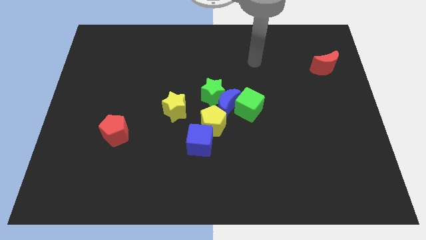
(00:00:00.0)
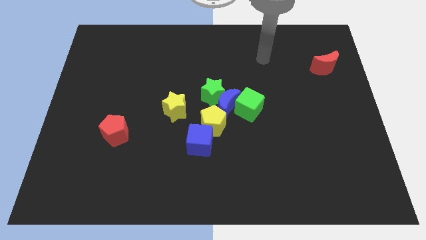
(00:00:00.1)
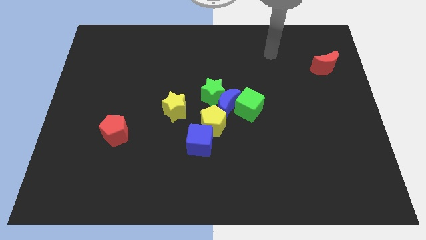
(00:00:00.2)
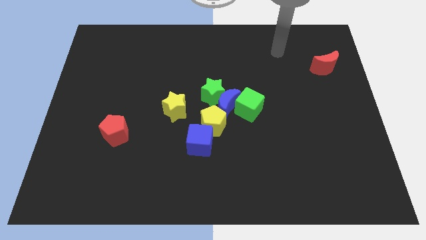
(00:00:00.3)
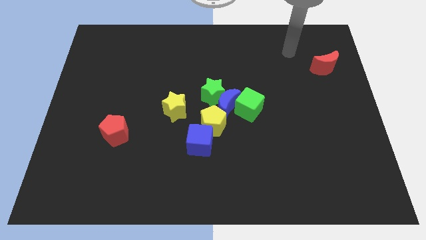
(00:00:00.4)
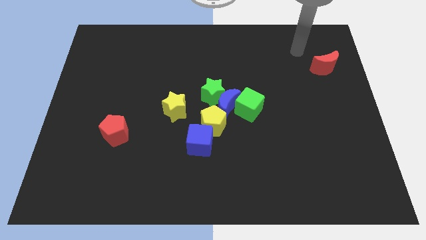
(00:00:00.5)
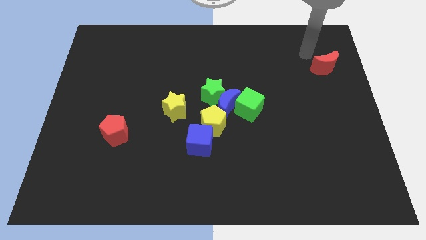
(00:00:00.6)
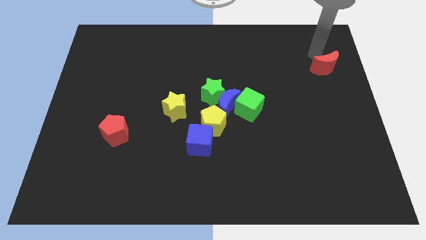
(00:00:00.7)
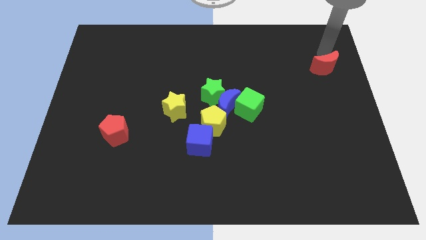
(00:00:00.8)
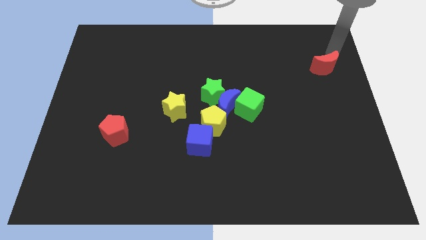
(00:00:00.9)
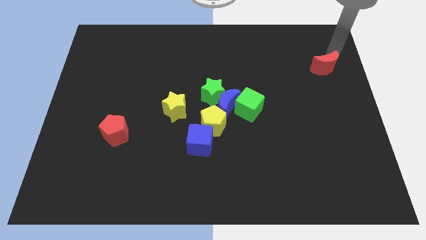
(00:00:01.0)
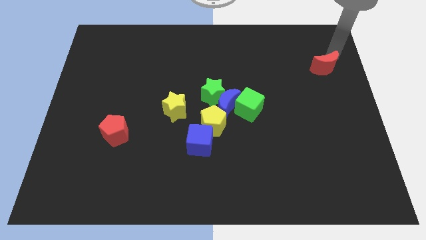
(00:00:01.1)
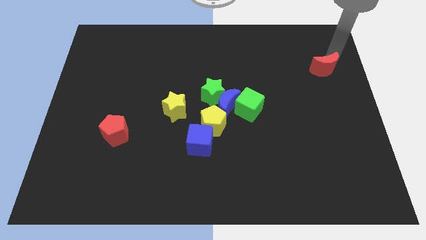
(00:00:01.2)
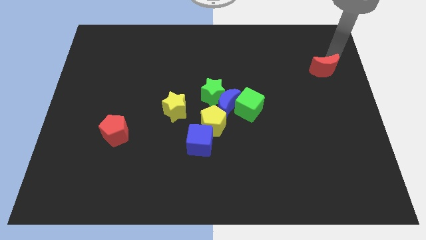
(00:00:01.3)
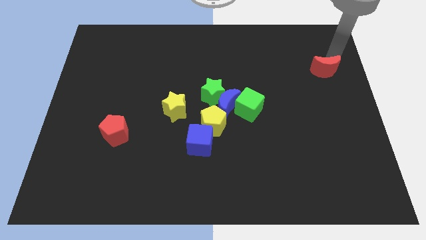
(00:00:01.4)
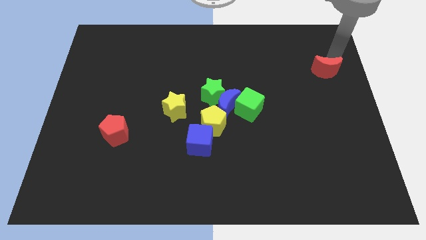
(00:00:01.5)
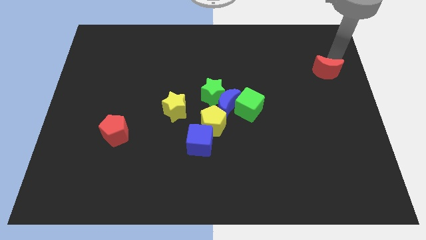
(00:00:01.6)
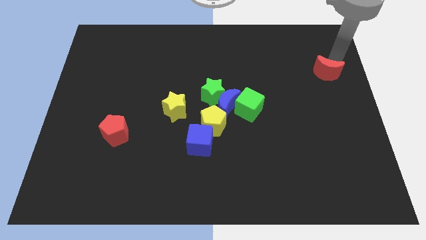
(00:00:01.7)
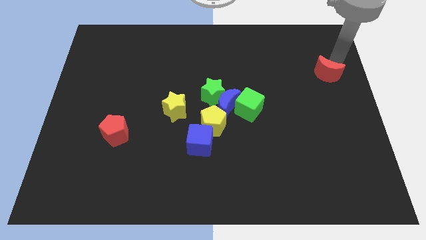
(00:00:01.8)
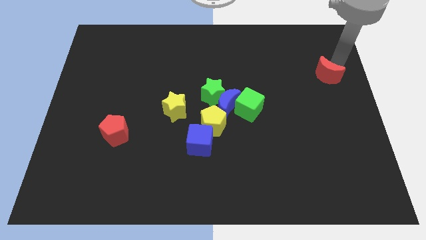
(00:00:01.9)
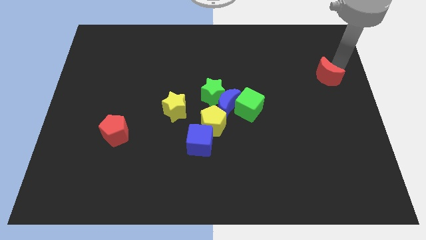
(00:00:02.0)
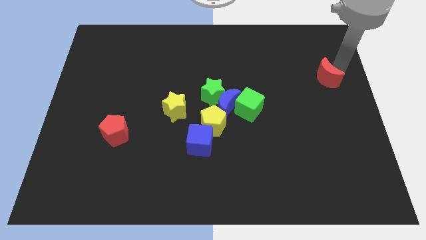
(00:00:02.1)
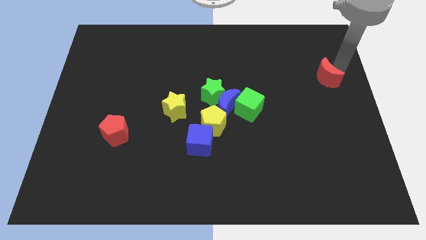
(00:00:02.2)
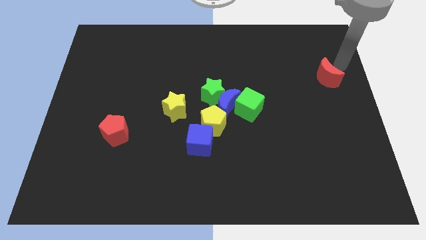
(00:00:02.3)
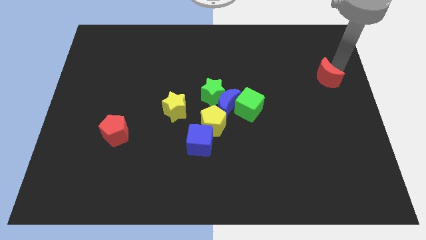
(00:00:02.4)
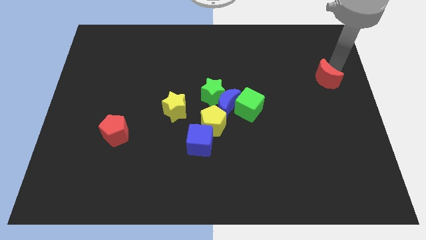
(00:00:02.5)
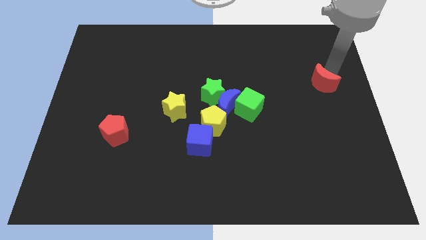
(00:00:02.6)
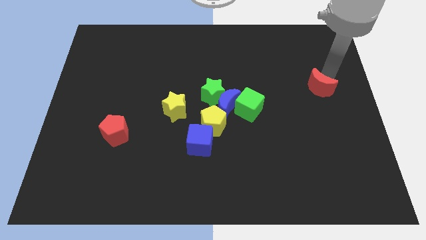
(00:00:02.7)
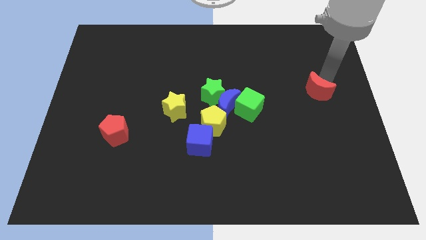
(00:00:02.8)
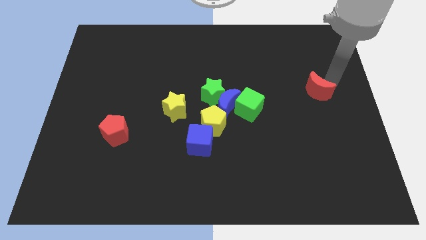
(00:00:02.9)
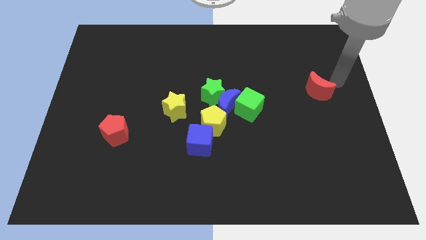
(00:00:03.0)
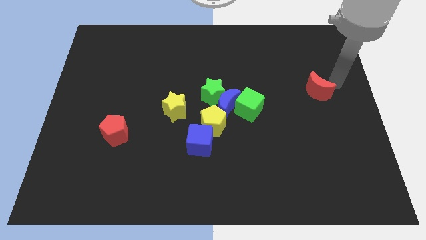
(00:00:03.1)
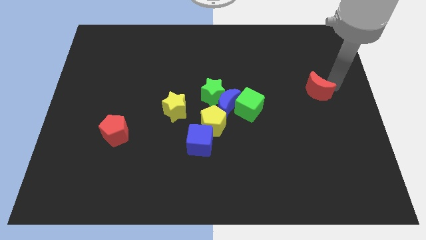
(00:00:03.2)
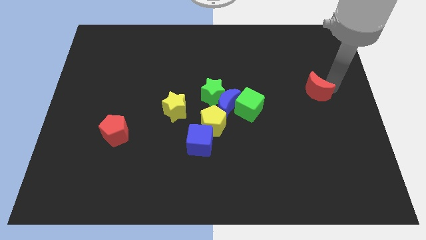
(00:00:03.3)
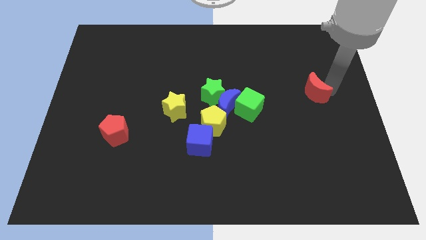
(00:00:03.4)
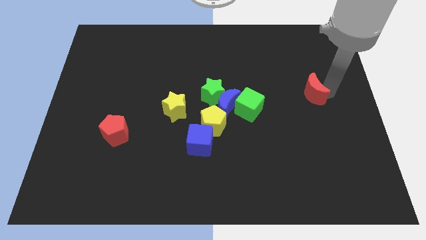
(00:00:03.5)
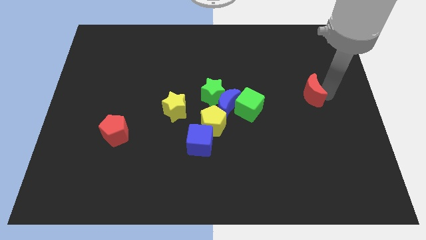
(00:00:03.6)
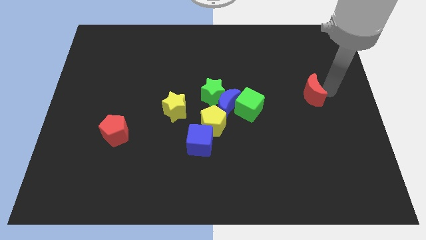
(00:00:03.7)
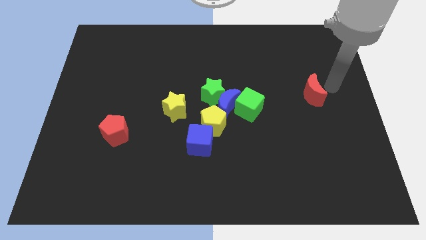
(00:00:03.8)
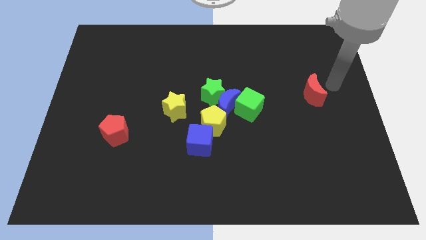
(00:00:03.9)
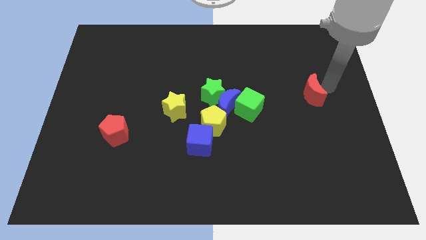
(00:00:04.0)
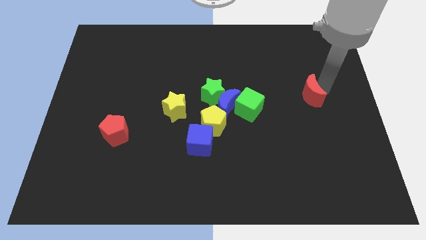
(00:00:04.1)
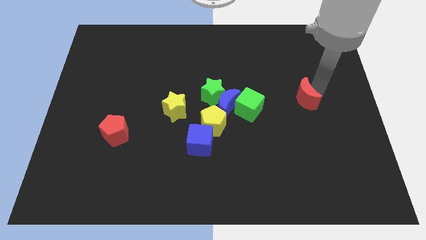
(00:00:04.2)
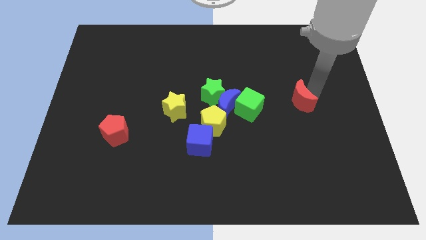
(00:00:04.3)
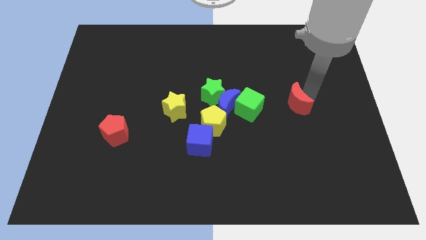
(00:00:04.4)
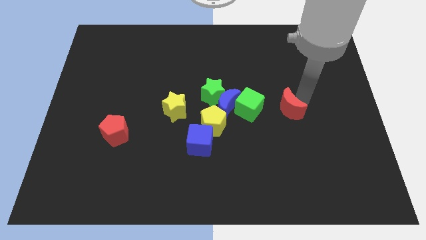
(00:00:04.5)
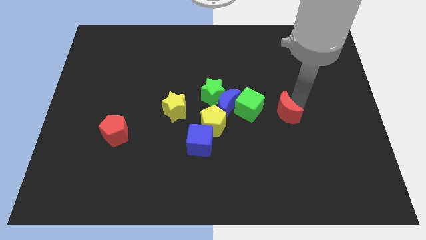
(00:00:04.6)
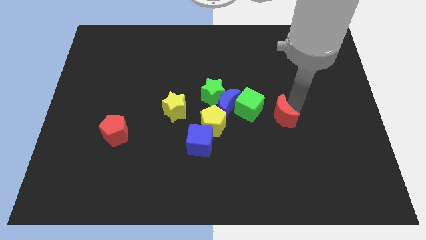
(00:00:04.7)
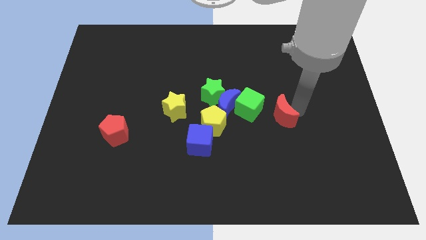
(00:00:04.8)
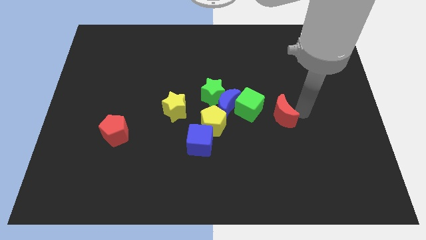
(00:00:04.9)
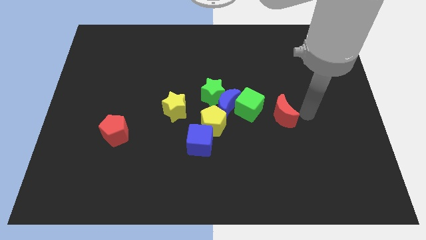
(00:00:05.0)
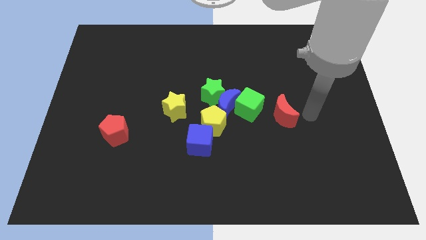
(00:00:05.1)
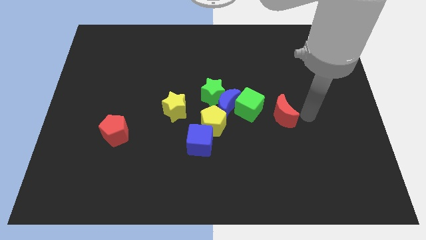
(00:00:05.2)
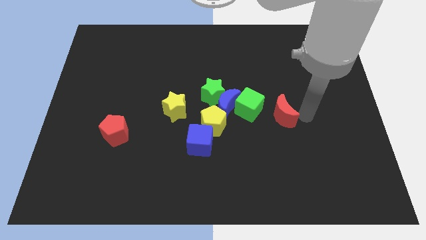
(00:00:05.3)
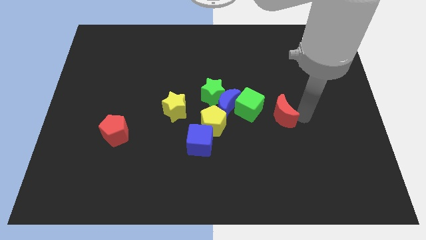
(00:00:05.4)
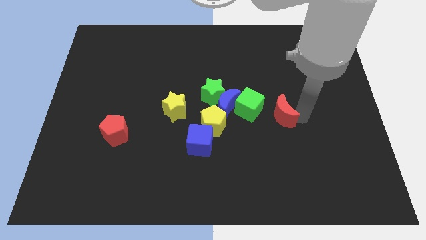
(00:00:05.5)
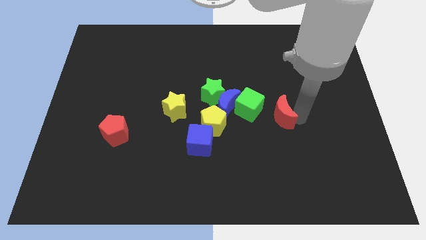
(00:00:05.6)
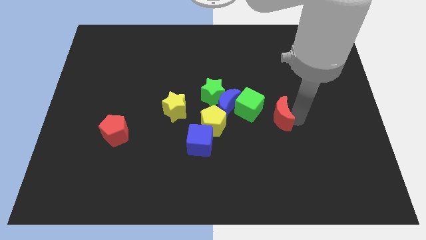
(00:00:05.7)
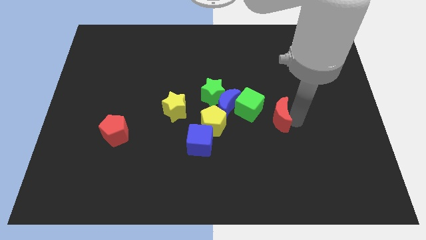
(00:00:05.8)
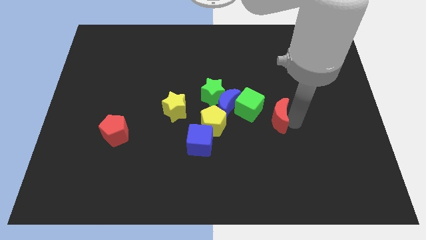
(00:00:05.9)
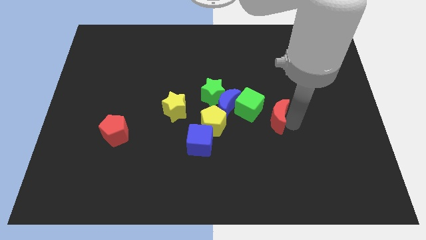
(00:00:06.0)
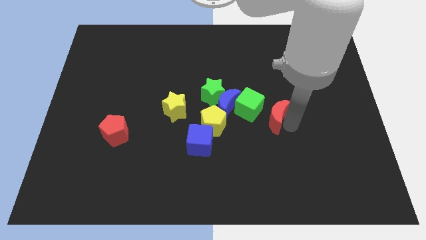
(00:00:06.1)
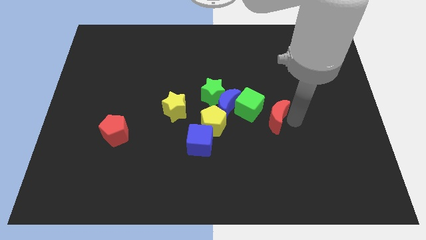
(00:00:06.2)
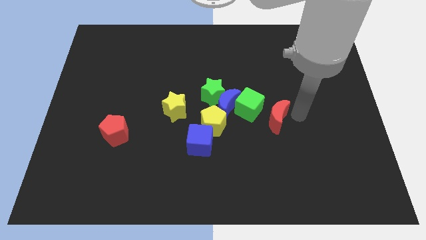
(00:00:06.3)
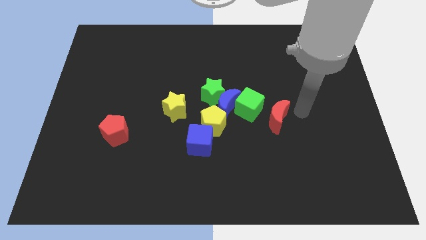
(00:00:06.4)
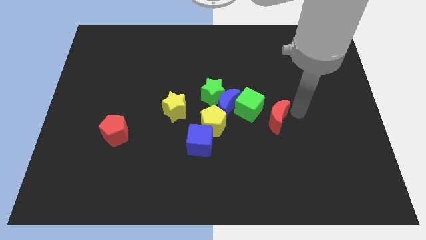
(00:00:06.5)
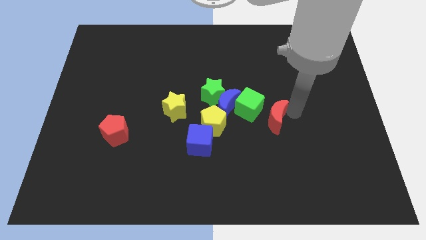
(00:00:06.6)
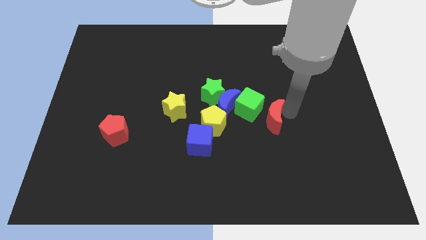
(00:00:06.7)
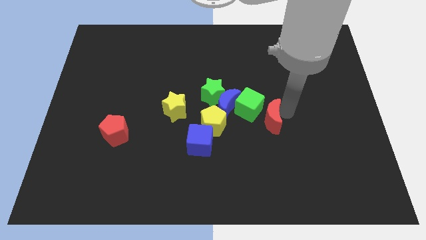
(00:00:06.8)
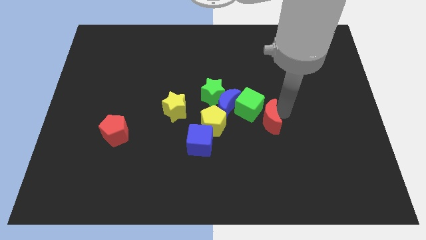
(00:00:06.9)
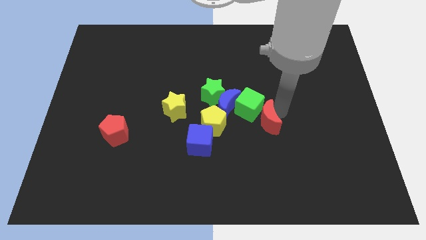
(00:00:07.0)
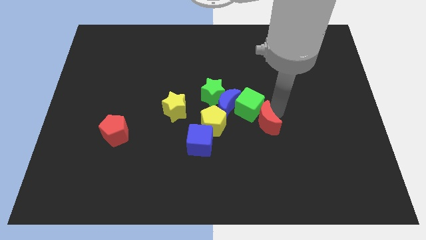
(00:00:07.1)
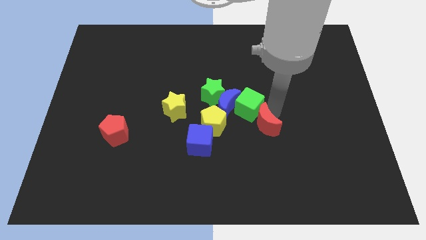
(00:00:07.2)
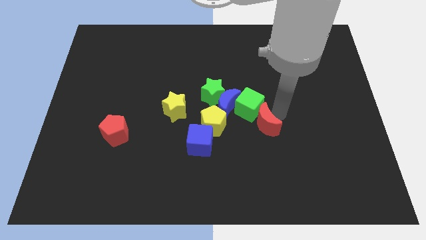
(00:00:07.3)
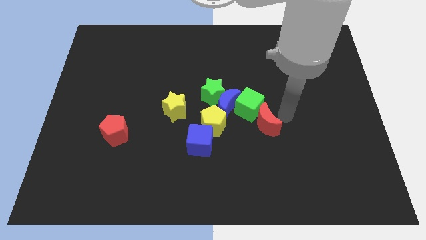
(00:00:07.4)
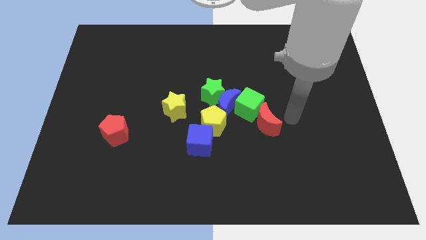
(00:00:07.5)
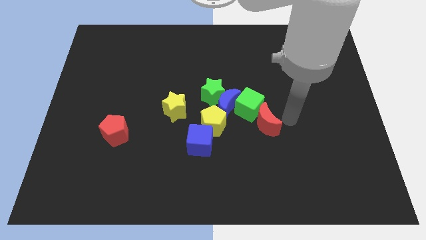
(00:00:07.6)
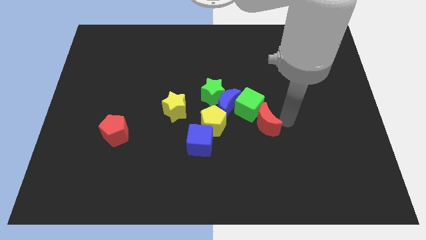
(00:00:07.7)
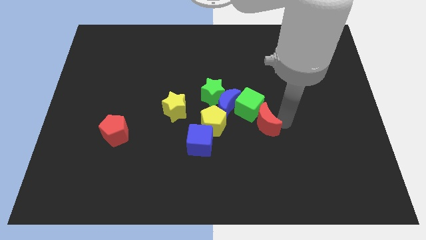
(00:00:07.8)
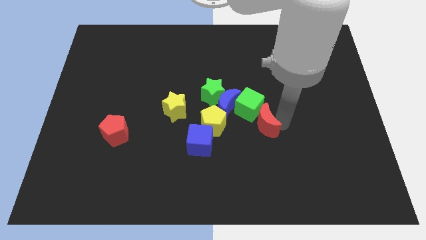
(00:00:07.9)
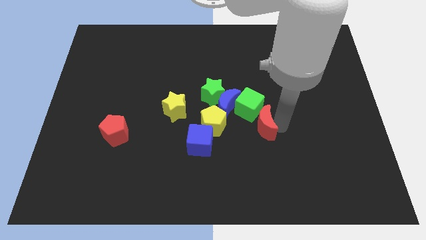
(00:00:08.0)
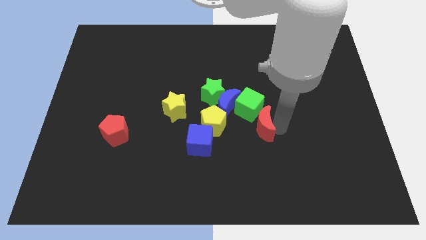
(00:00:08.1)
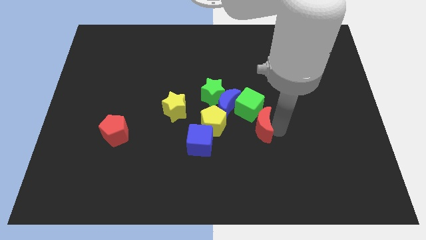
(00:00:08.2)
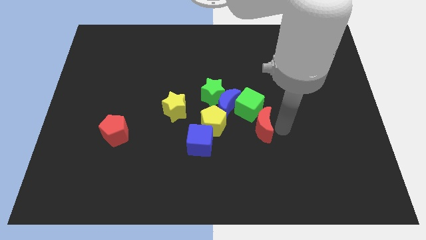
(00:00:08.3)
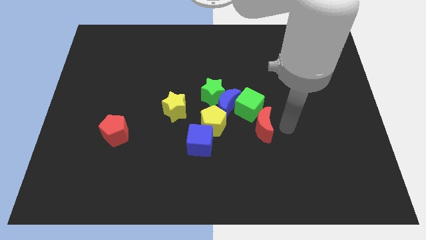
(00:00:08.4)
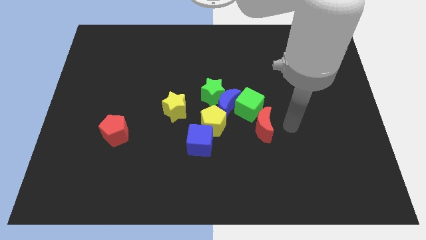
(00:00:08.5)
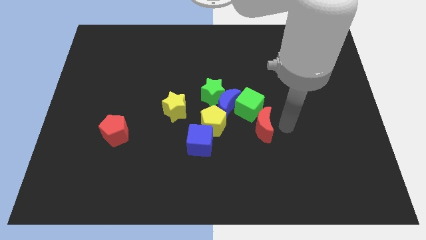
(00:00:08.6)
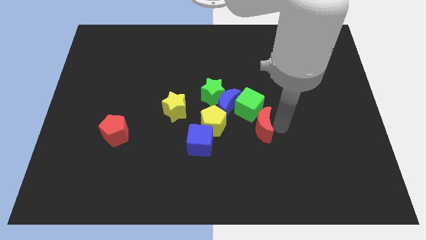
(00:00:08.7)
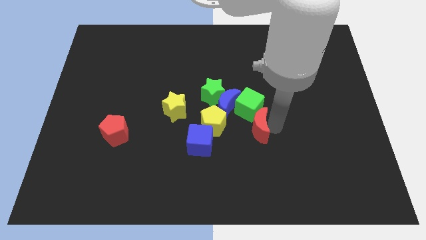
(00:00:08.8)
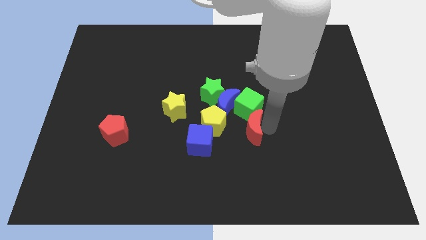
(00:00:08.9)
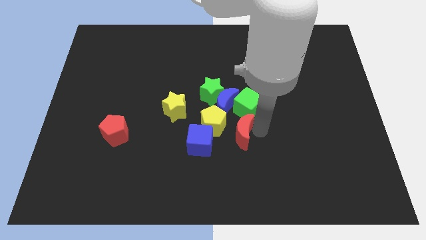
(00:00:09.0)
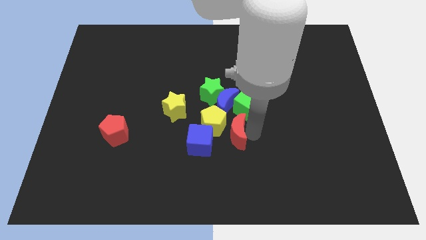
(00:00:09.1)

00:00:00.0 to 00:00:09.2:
move the red moon towards the yellow pentagon
